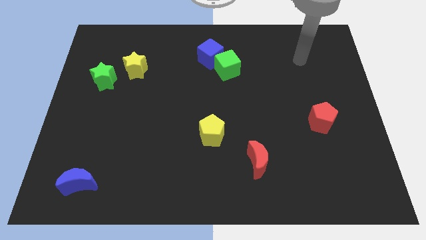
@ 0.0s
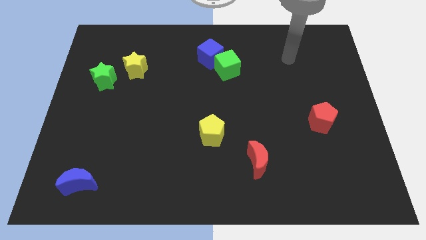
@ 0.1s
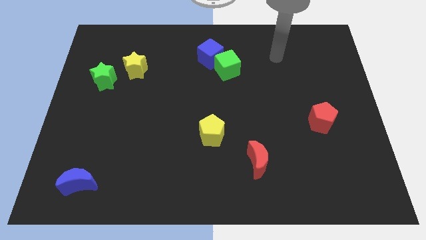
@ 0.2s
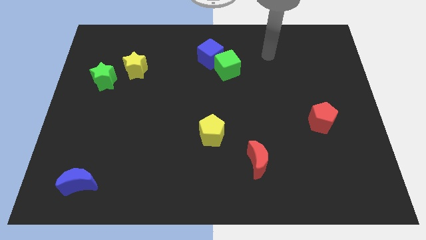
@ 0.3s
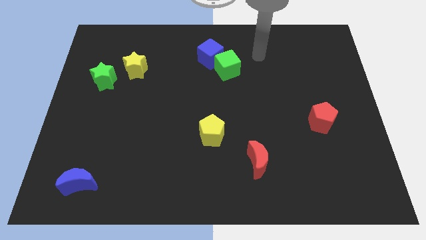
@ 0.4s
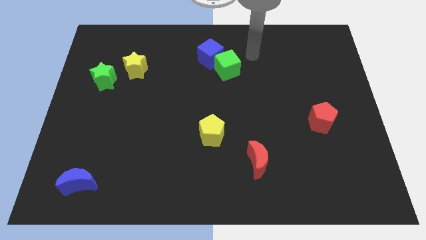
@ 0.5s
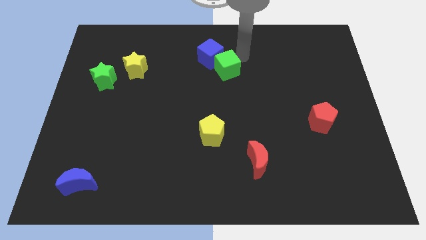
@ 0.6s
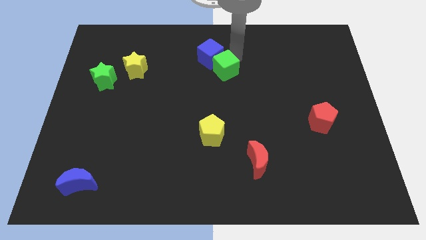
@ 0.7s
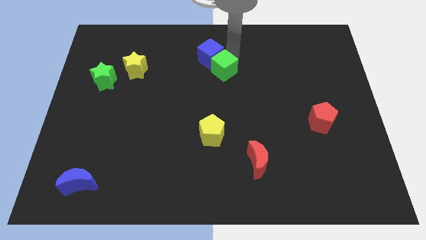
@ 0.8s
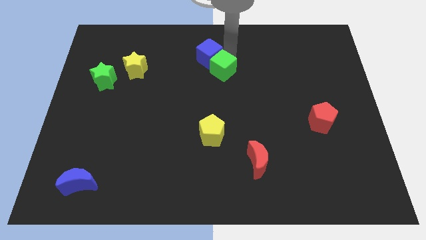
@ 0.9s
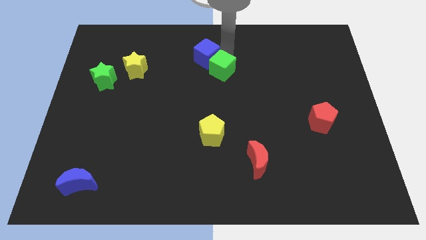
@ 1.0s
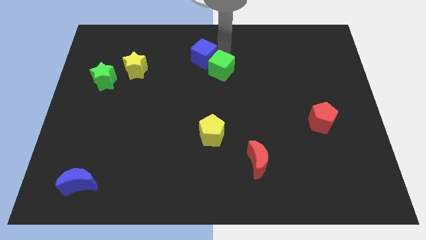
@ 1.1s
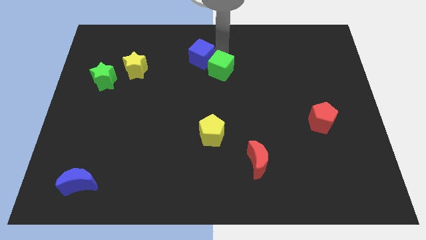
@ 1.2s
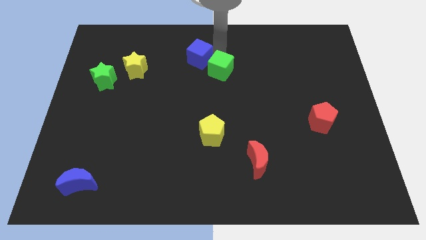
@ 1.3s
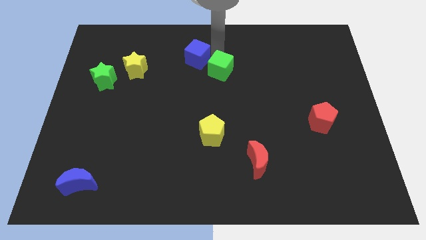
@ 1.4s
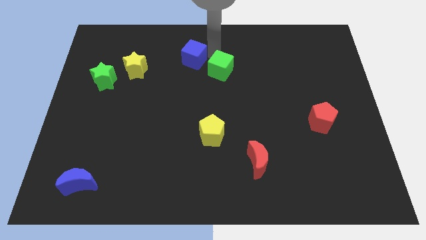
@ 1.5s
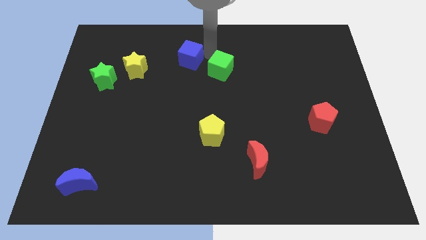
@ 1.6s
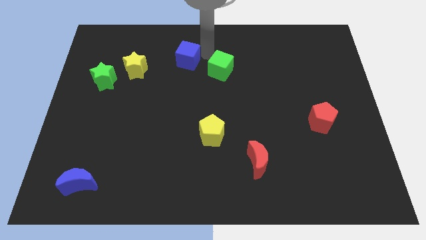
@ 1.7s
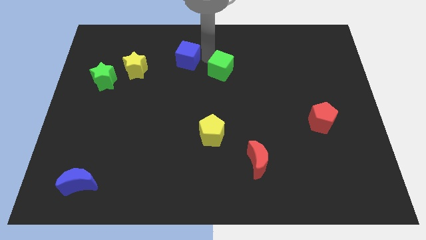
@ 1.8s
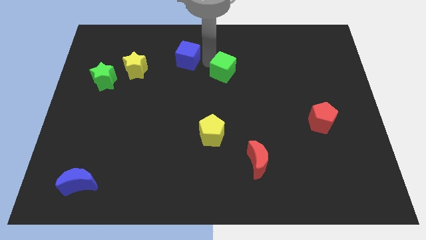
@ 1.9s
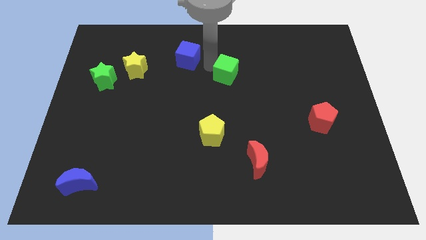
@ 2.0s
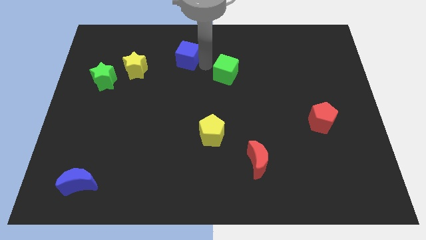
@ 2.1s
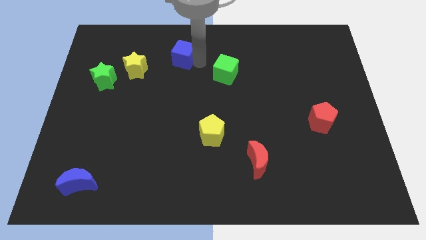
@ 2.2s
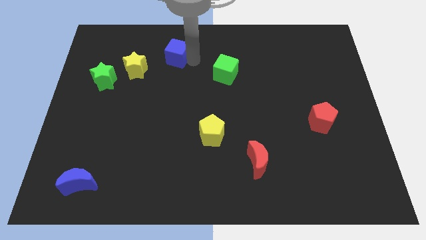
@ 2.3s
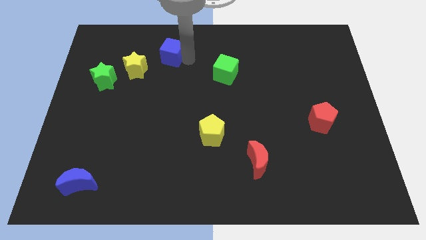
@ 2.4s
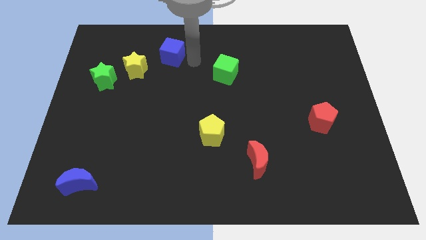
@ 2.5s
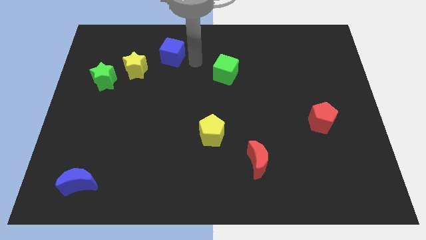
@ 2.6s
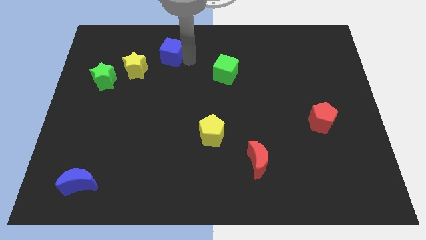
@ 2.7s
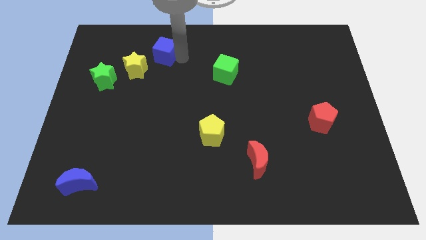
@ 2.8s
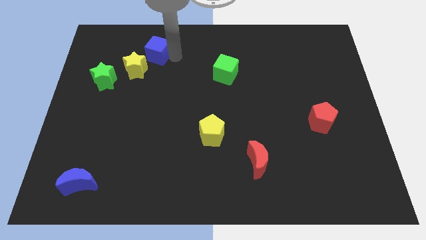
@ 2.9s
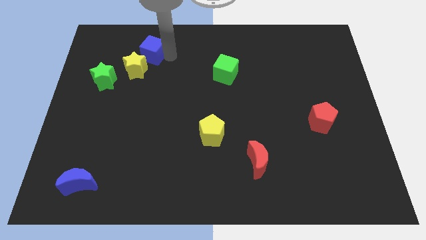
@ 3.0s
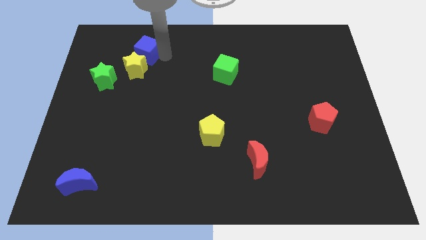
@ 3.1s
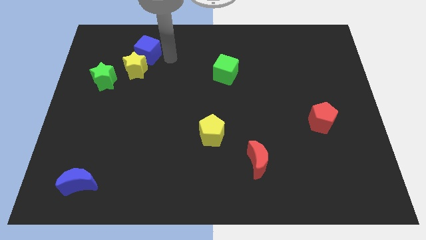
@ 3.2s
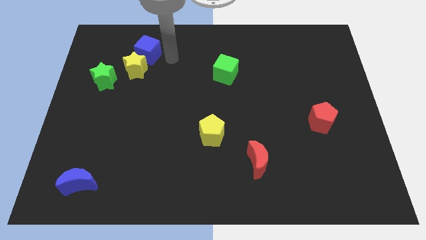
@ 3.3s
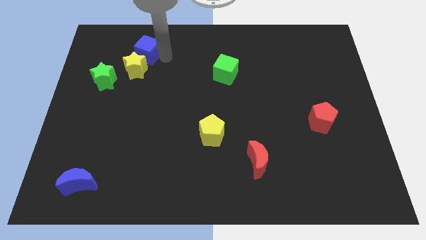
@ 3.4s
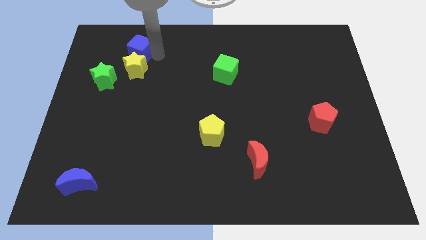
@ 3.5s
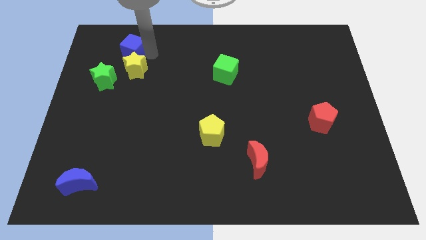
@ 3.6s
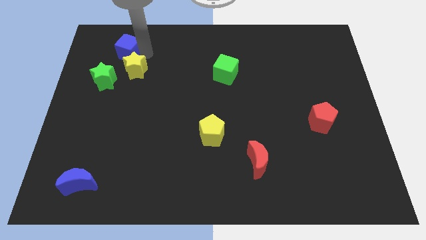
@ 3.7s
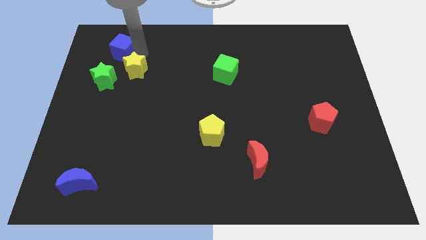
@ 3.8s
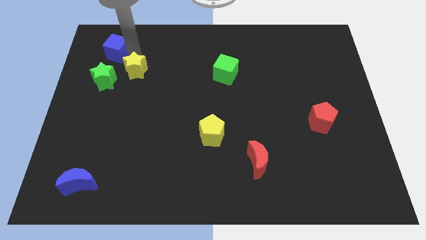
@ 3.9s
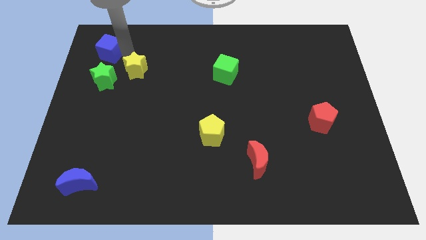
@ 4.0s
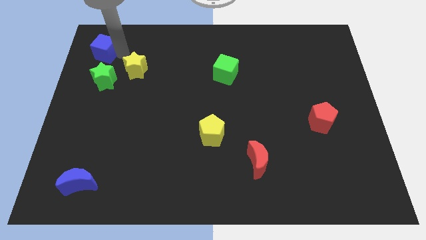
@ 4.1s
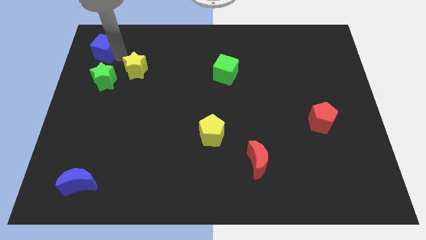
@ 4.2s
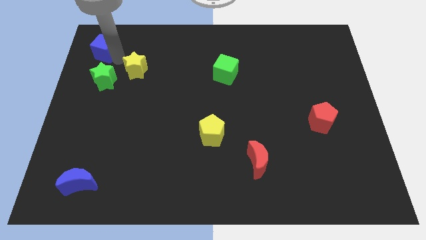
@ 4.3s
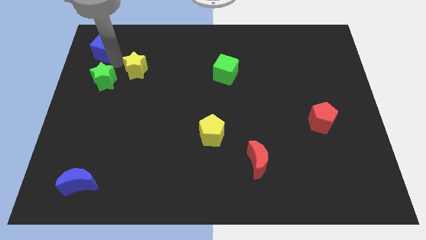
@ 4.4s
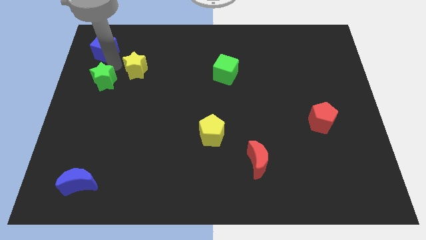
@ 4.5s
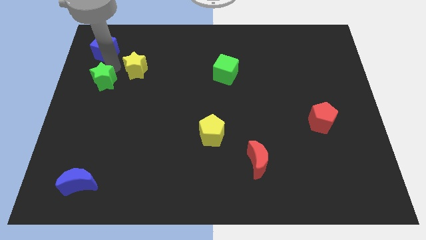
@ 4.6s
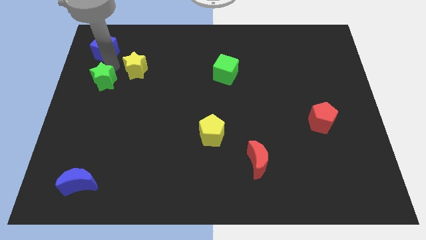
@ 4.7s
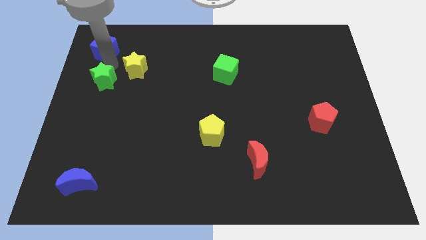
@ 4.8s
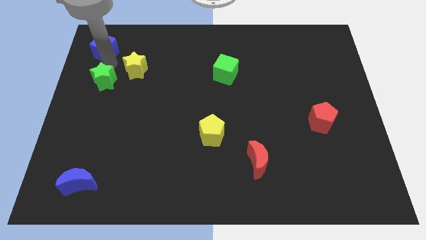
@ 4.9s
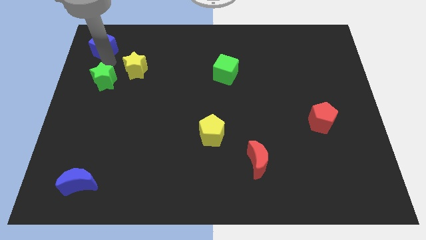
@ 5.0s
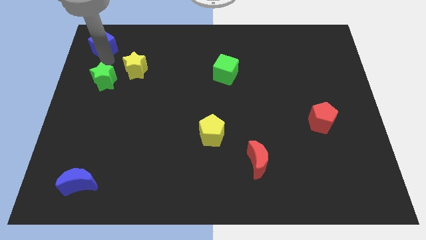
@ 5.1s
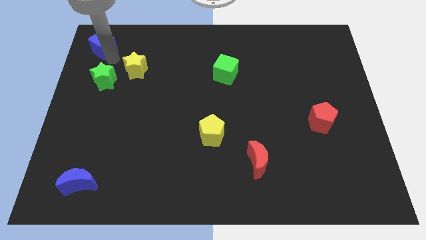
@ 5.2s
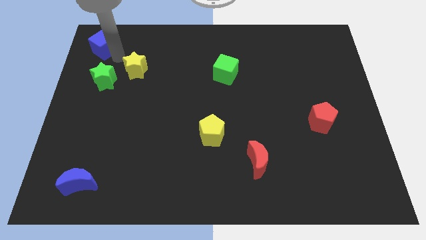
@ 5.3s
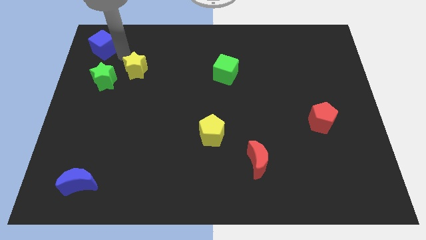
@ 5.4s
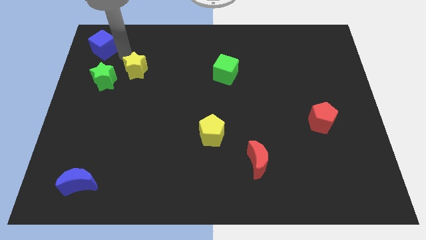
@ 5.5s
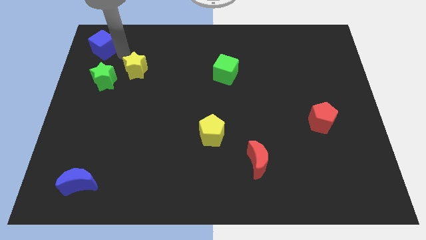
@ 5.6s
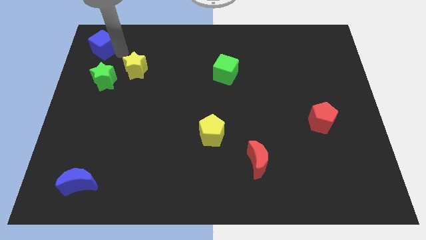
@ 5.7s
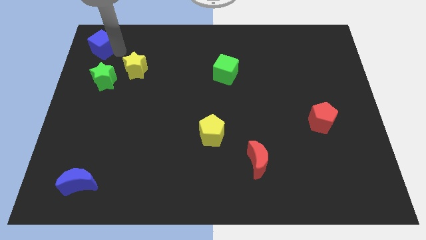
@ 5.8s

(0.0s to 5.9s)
slide the blue cube to the top left

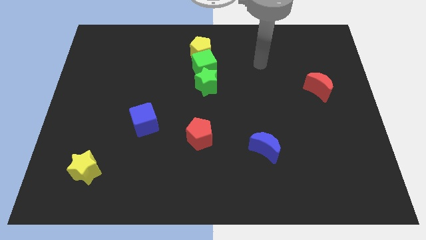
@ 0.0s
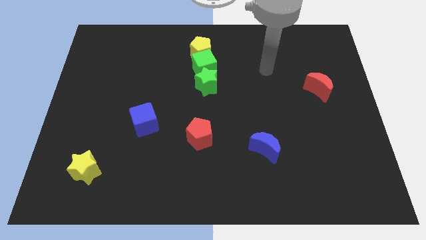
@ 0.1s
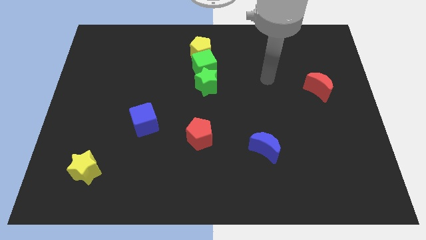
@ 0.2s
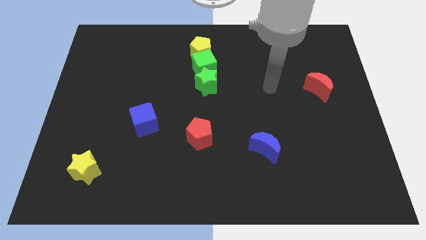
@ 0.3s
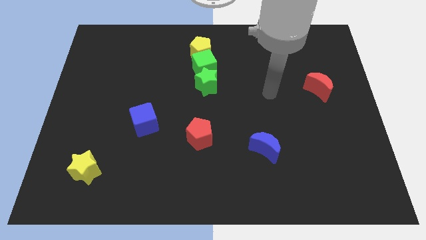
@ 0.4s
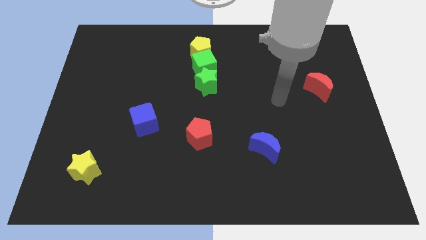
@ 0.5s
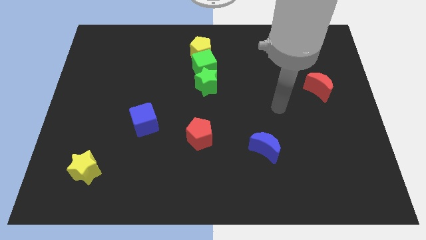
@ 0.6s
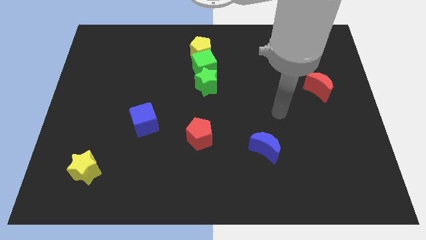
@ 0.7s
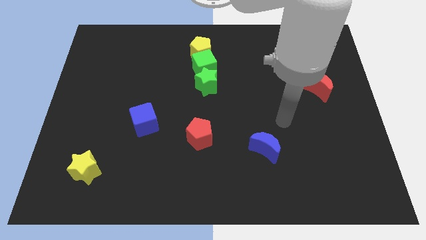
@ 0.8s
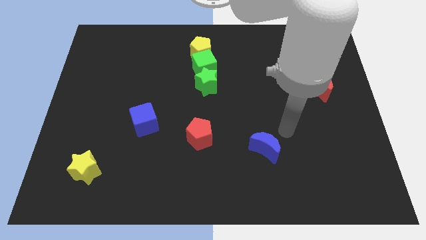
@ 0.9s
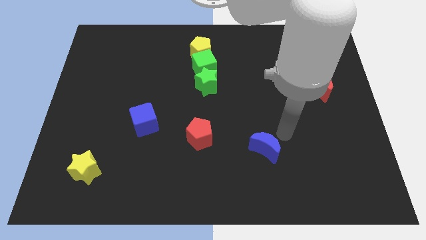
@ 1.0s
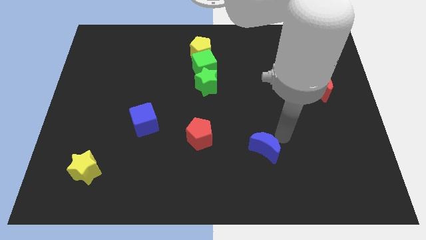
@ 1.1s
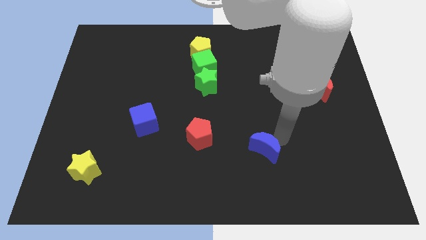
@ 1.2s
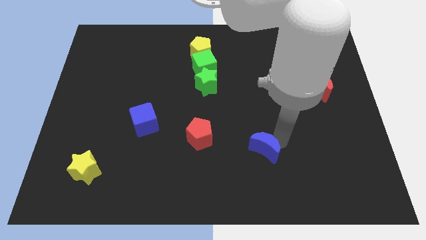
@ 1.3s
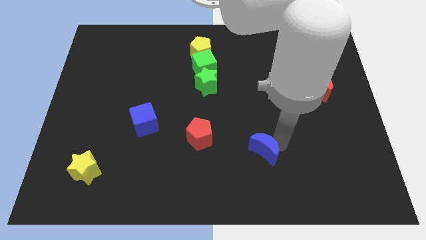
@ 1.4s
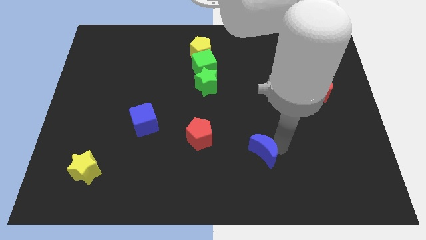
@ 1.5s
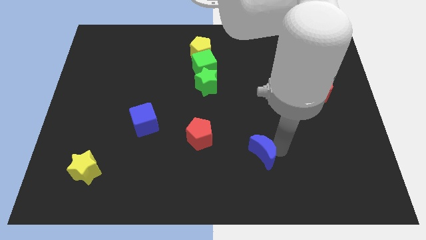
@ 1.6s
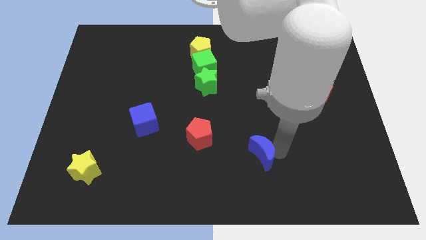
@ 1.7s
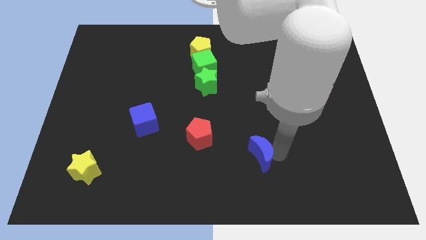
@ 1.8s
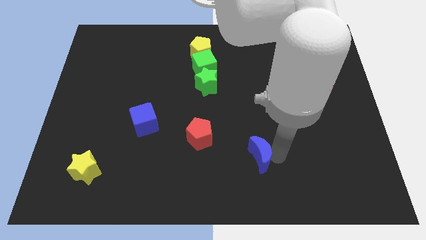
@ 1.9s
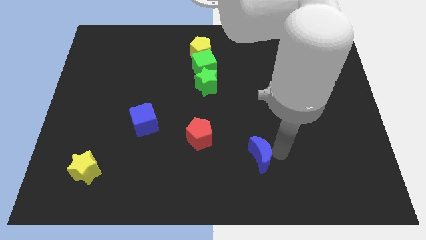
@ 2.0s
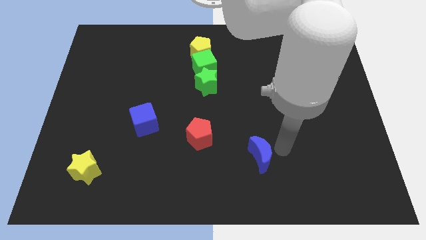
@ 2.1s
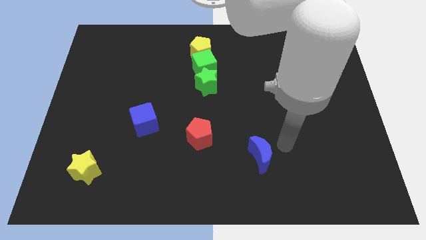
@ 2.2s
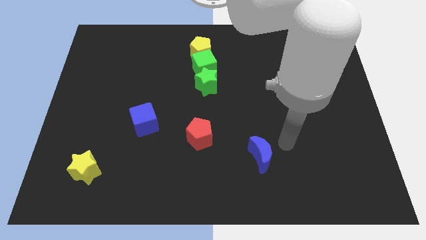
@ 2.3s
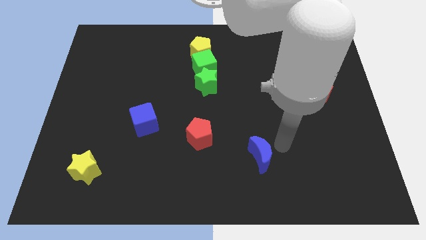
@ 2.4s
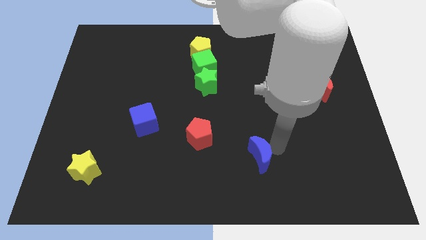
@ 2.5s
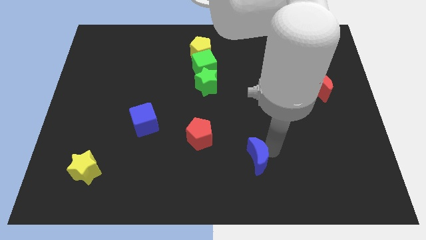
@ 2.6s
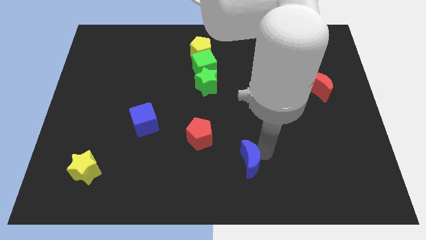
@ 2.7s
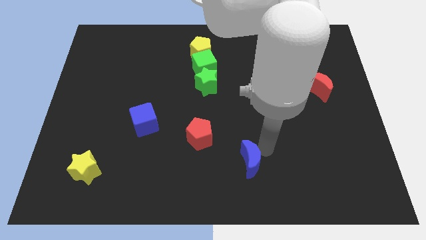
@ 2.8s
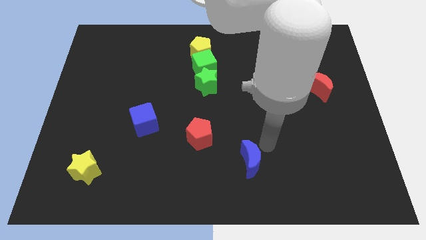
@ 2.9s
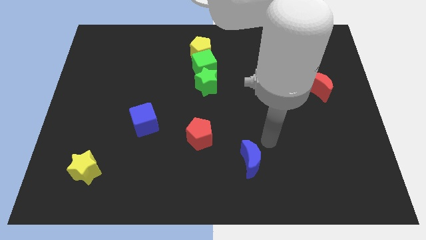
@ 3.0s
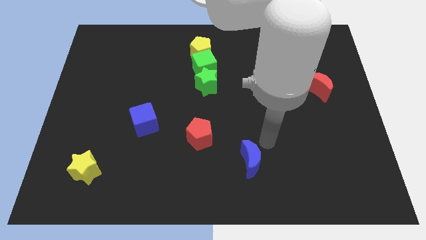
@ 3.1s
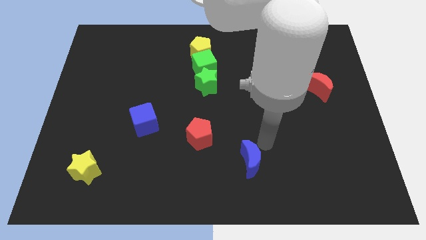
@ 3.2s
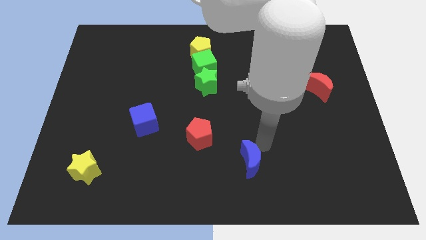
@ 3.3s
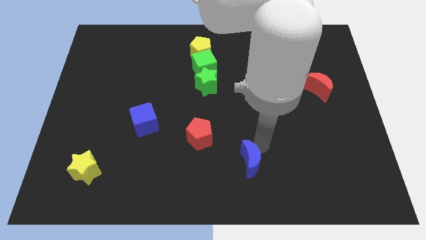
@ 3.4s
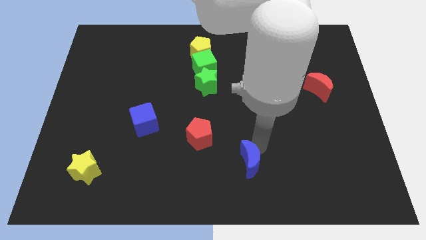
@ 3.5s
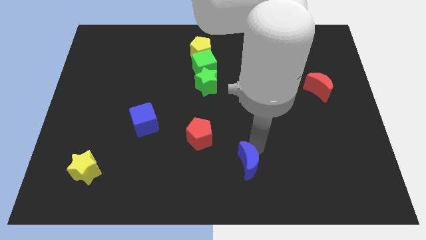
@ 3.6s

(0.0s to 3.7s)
push the blue moon to the bottom
